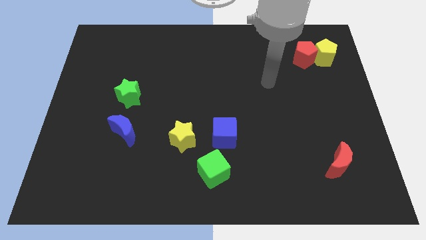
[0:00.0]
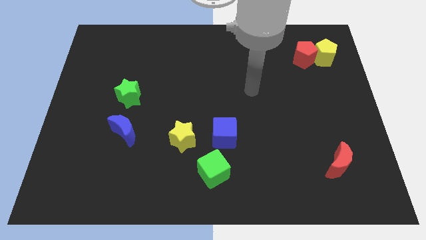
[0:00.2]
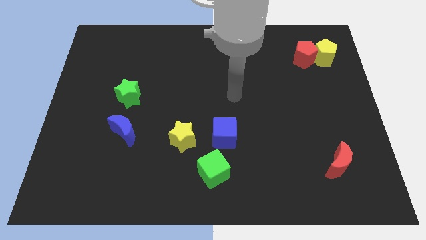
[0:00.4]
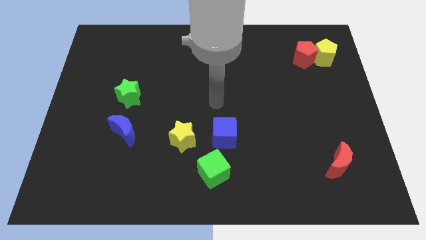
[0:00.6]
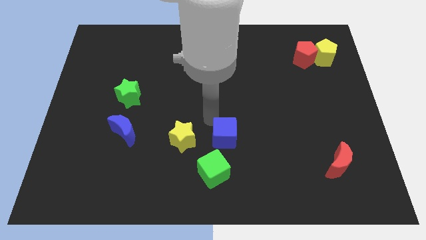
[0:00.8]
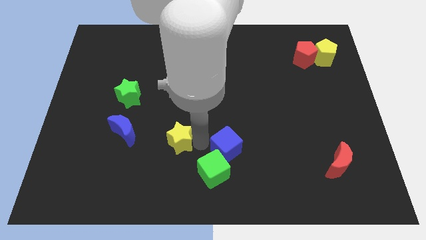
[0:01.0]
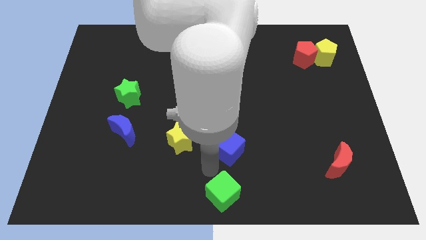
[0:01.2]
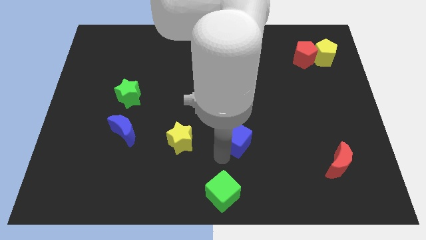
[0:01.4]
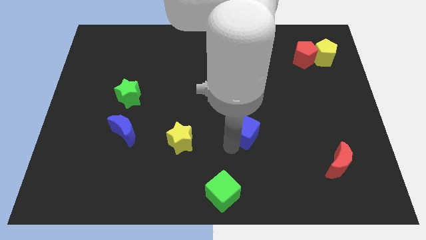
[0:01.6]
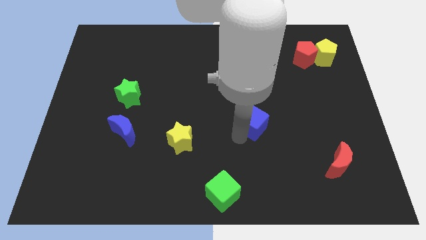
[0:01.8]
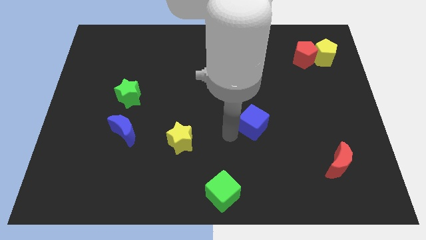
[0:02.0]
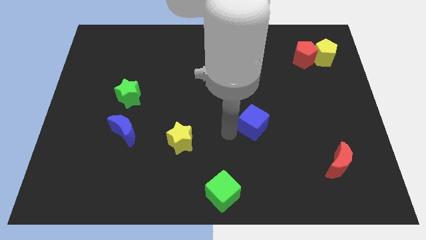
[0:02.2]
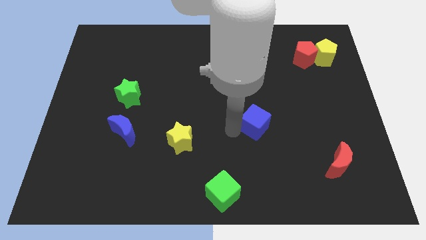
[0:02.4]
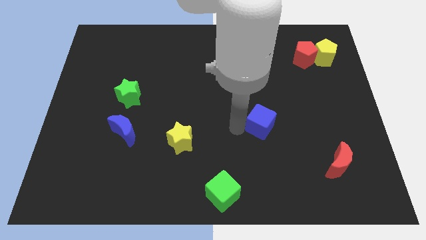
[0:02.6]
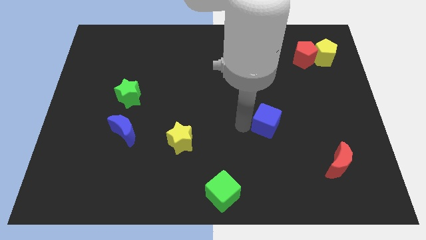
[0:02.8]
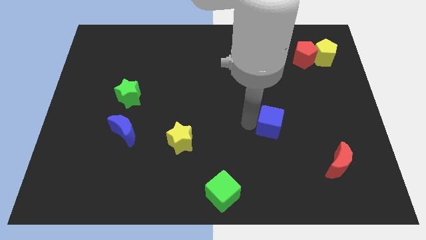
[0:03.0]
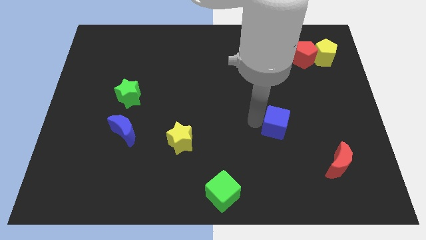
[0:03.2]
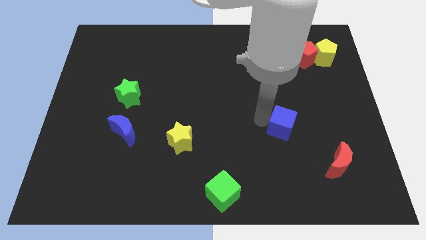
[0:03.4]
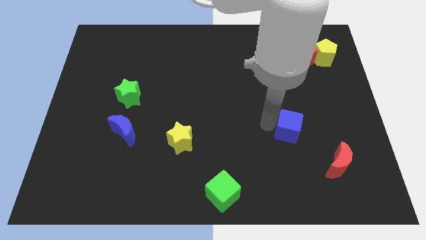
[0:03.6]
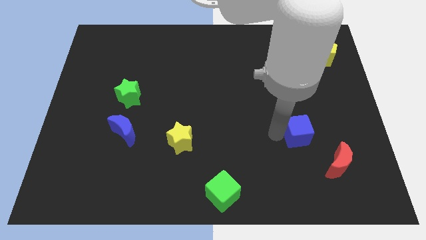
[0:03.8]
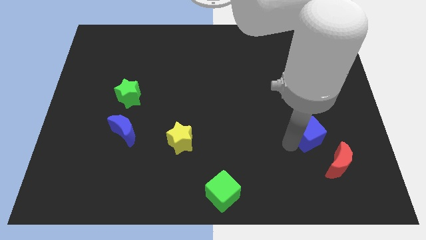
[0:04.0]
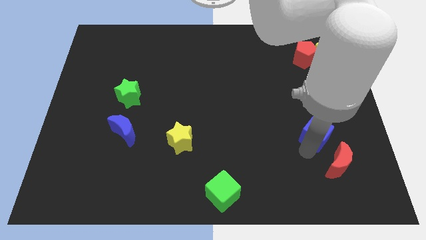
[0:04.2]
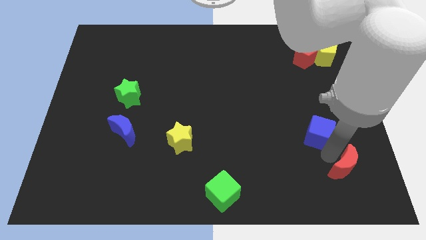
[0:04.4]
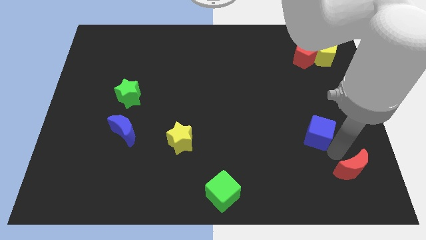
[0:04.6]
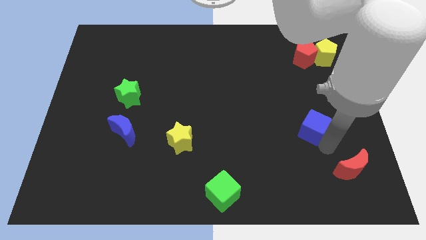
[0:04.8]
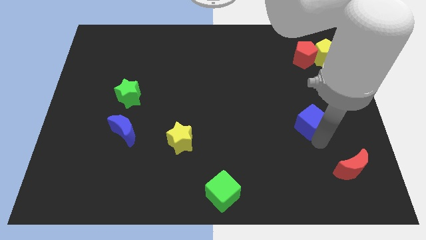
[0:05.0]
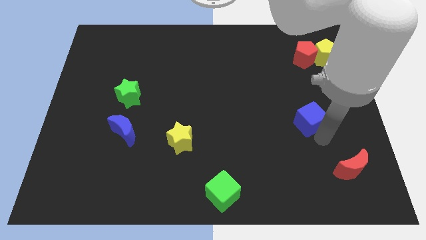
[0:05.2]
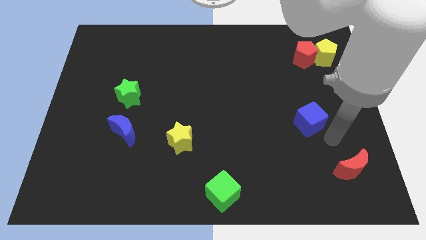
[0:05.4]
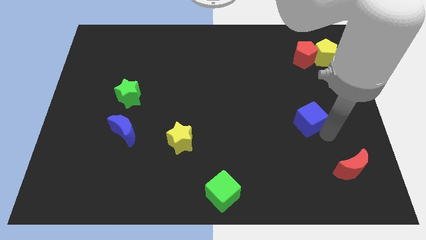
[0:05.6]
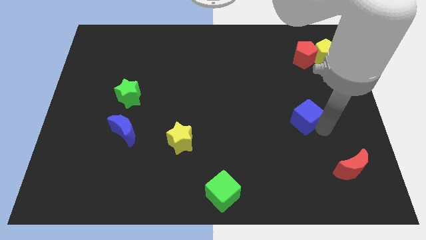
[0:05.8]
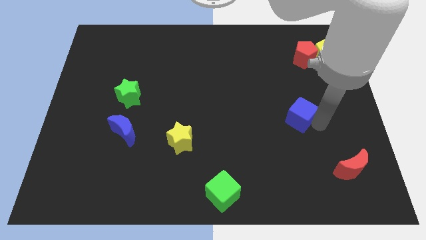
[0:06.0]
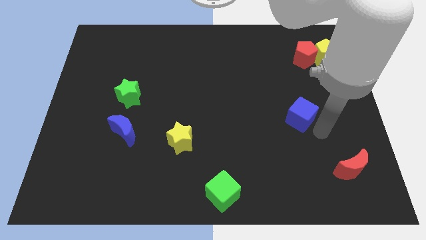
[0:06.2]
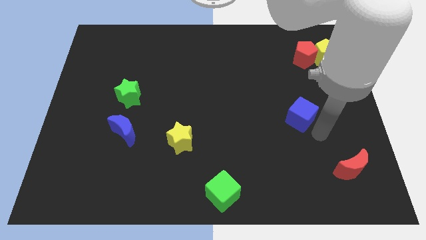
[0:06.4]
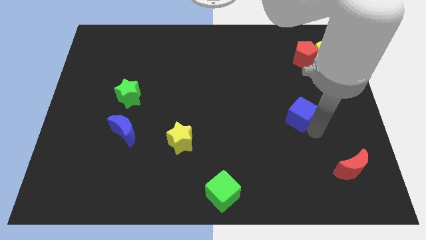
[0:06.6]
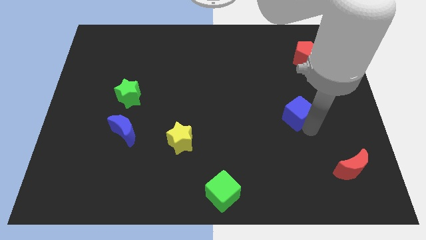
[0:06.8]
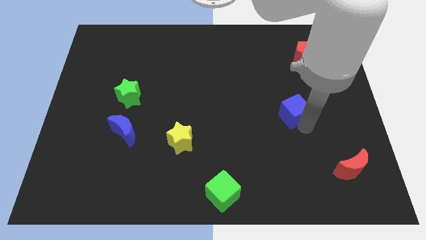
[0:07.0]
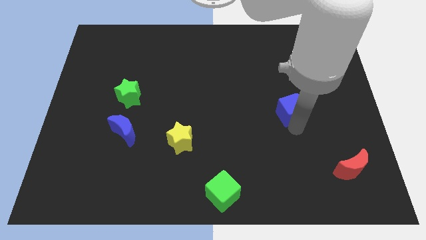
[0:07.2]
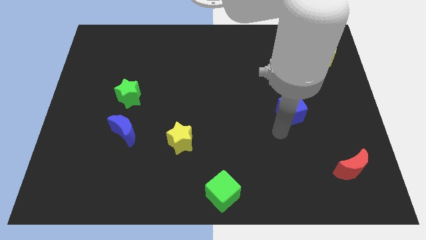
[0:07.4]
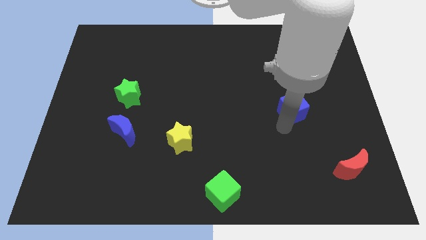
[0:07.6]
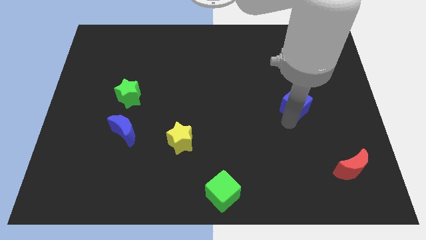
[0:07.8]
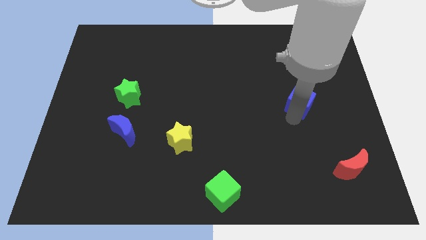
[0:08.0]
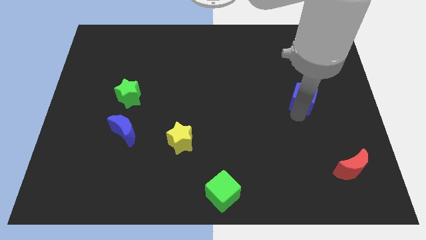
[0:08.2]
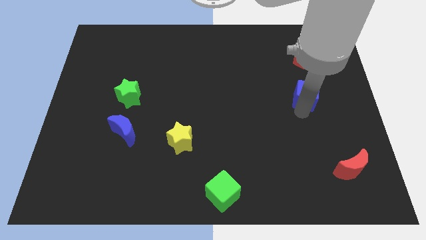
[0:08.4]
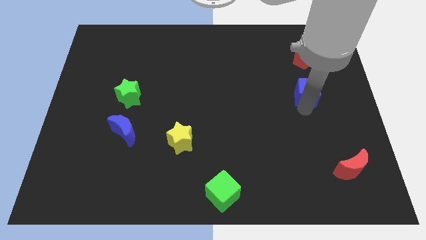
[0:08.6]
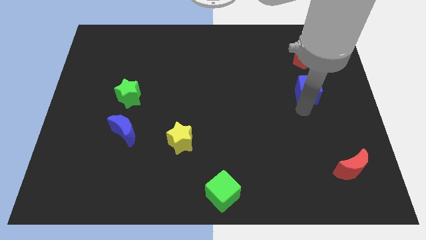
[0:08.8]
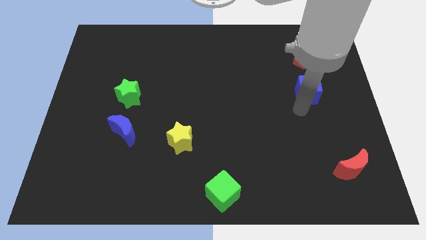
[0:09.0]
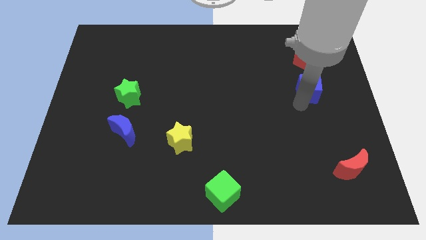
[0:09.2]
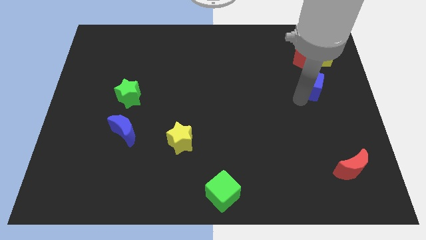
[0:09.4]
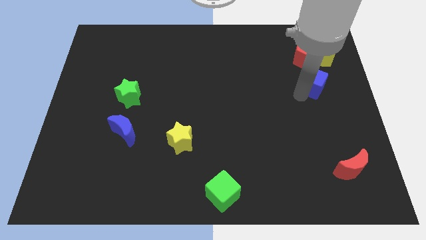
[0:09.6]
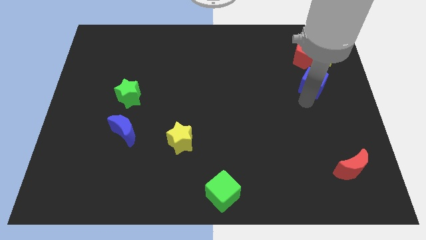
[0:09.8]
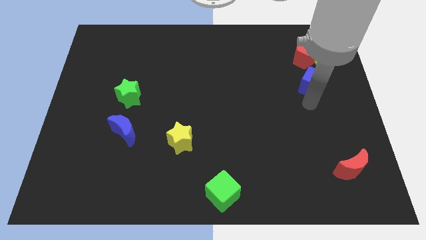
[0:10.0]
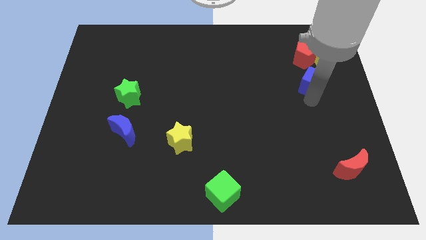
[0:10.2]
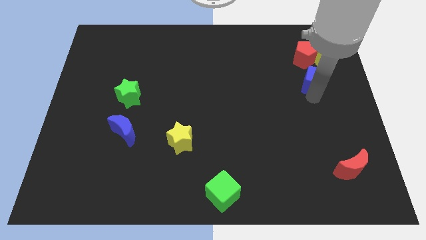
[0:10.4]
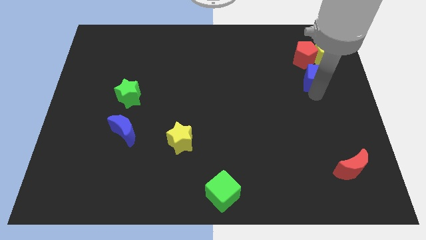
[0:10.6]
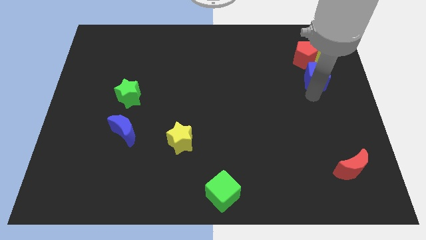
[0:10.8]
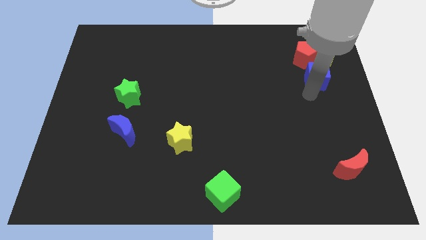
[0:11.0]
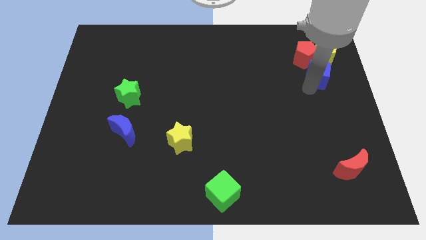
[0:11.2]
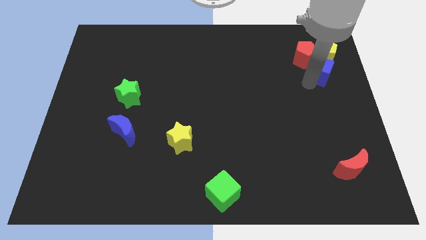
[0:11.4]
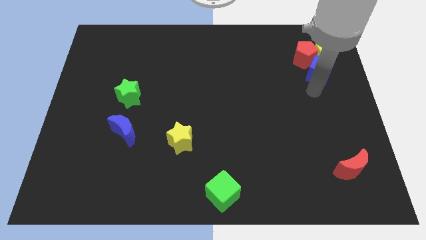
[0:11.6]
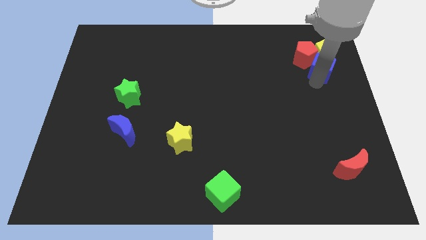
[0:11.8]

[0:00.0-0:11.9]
push the blue cube to the yellow pentagon

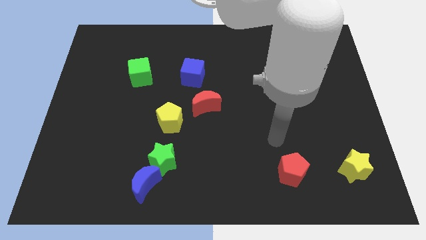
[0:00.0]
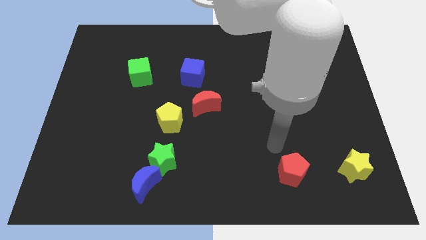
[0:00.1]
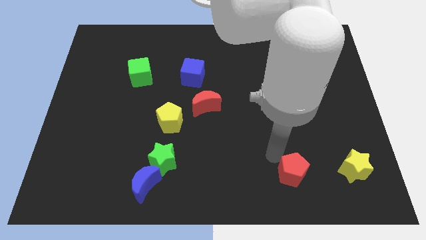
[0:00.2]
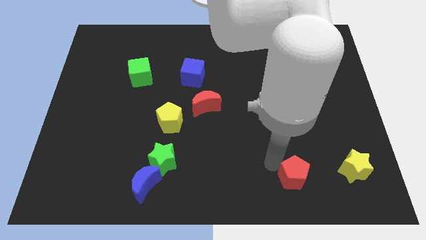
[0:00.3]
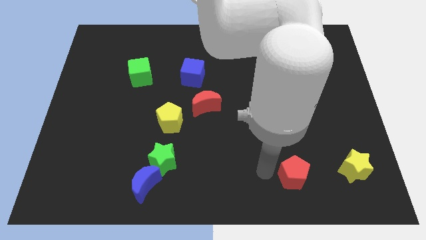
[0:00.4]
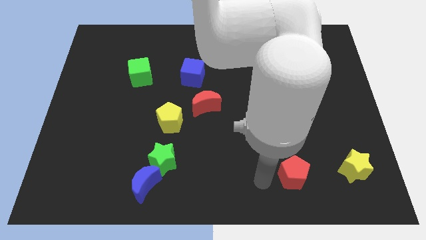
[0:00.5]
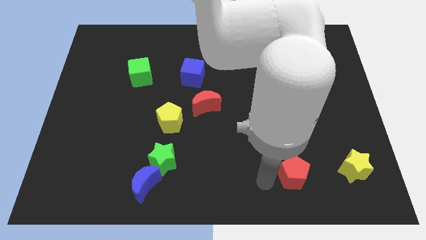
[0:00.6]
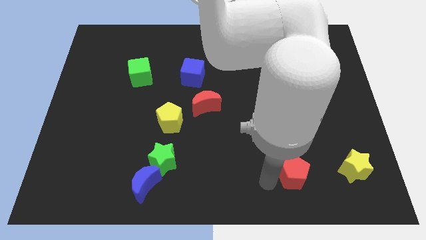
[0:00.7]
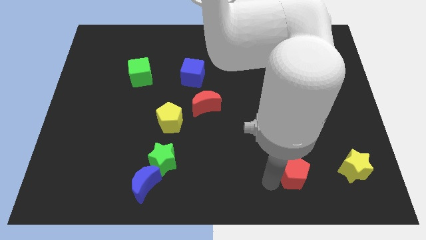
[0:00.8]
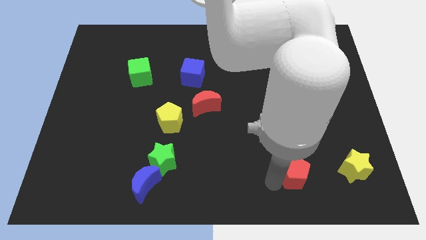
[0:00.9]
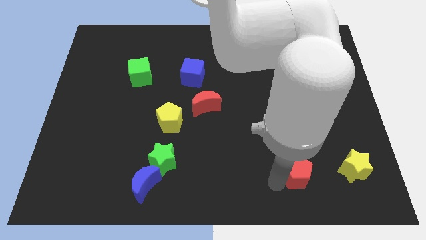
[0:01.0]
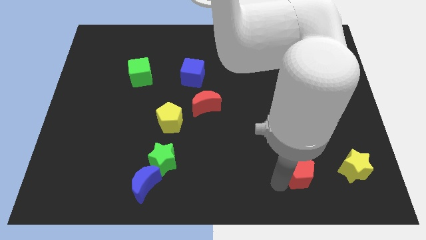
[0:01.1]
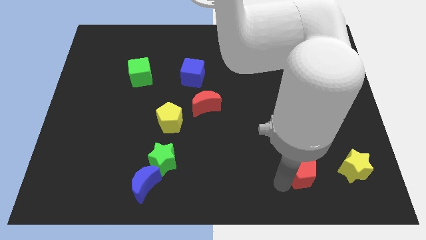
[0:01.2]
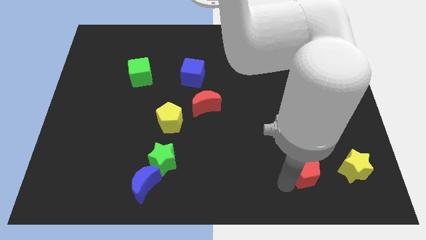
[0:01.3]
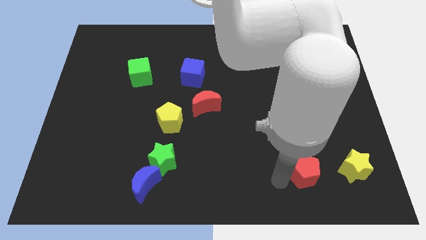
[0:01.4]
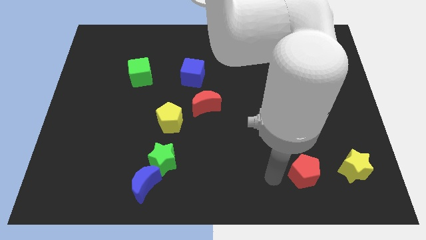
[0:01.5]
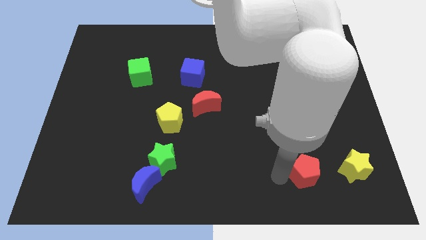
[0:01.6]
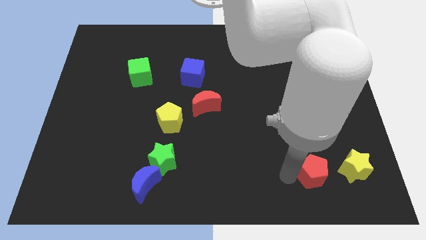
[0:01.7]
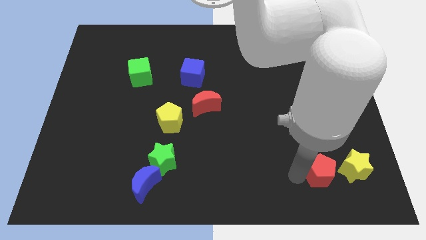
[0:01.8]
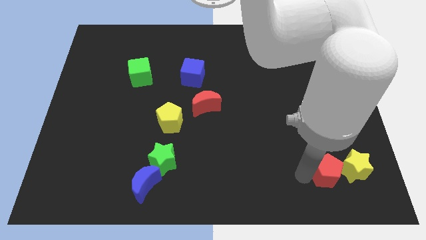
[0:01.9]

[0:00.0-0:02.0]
move the red pentagon to the yellow star
